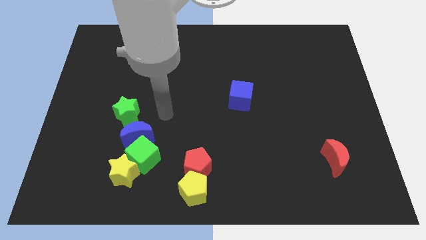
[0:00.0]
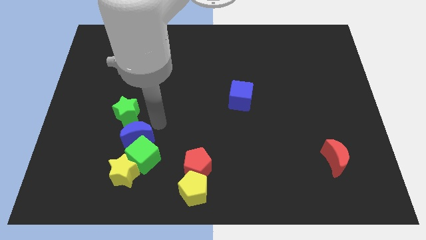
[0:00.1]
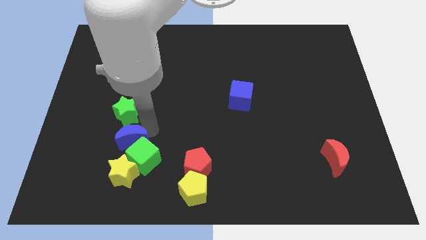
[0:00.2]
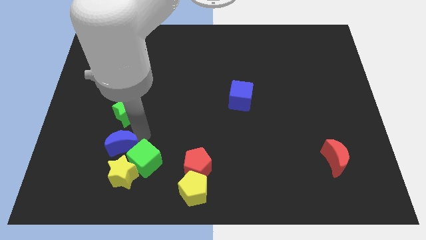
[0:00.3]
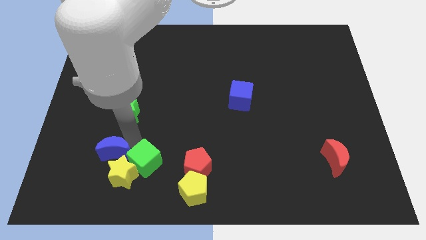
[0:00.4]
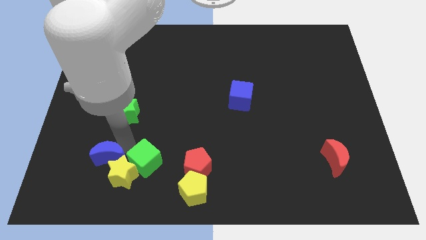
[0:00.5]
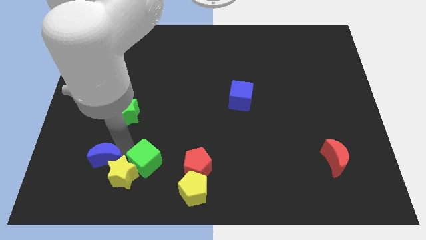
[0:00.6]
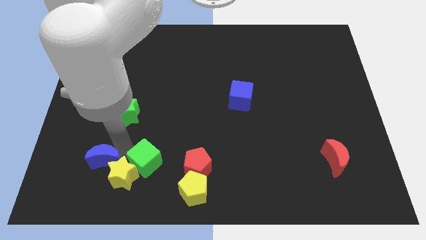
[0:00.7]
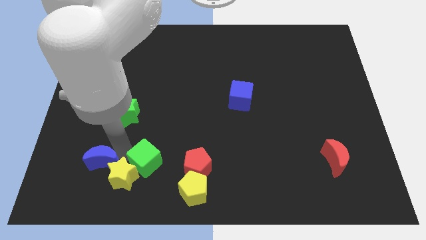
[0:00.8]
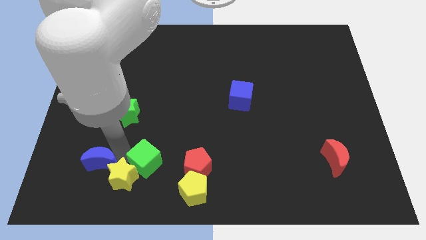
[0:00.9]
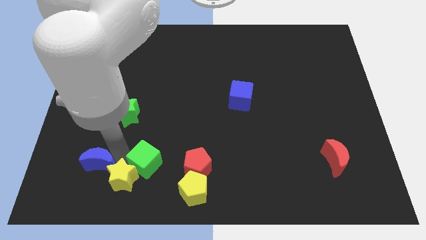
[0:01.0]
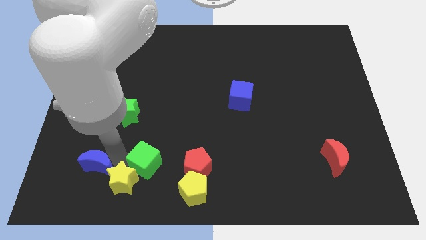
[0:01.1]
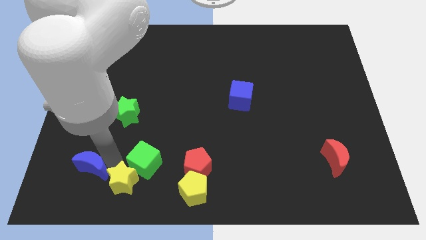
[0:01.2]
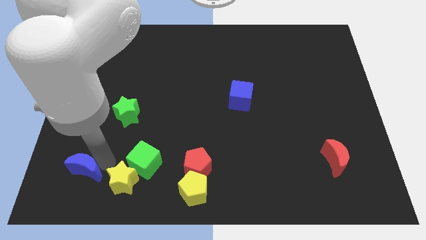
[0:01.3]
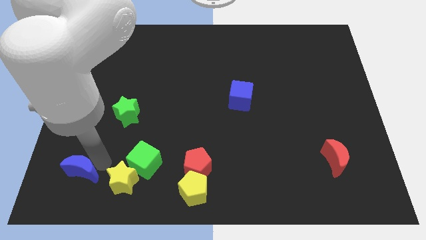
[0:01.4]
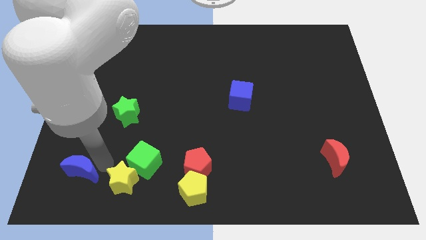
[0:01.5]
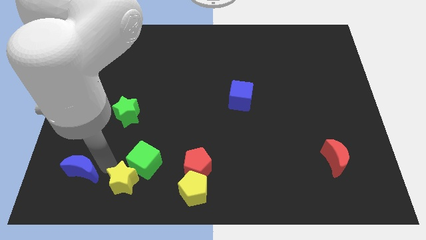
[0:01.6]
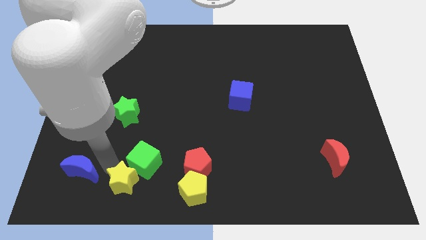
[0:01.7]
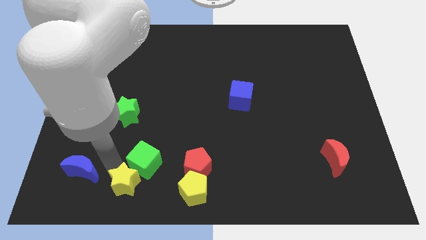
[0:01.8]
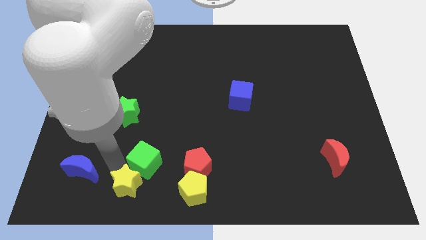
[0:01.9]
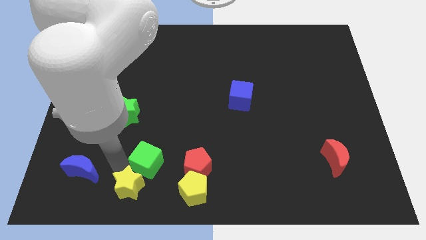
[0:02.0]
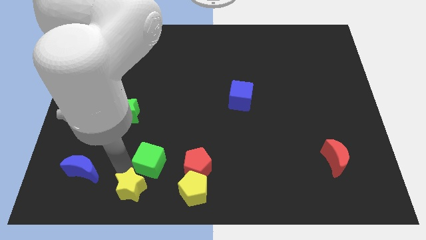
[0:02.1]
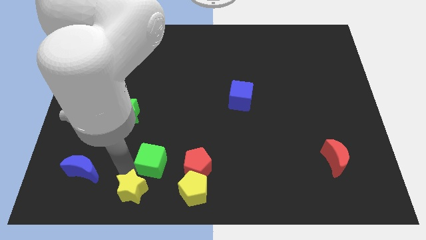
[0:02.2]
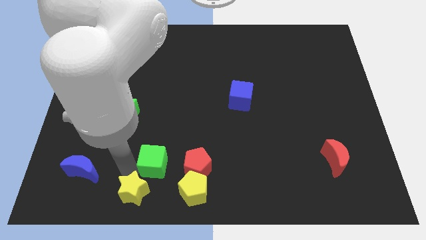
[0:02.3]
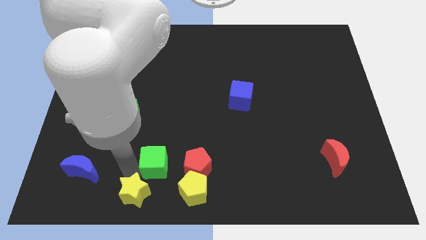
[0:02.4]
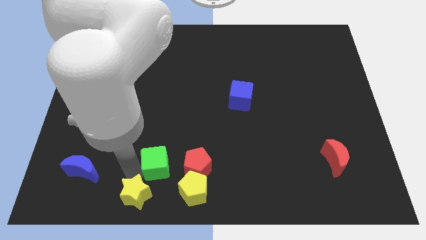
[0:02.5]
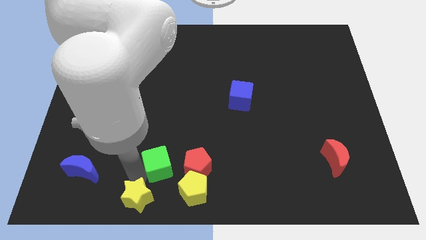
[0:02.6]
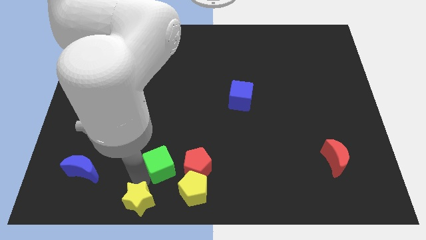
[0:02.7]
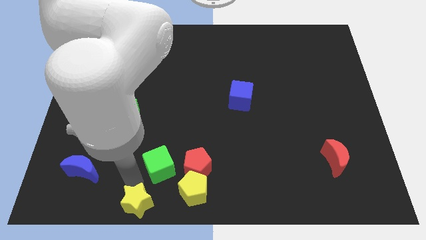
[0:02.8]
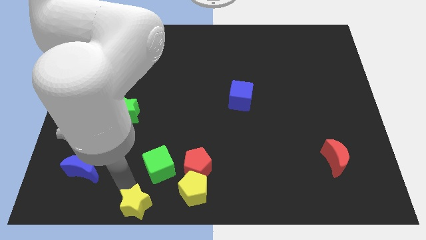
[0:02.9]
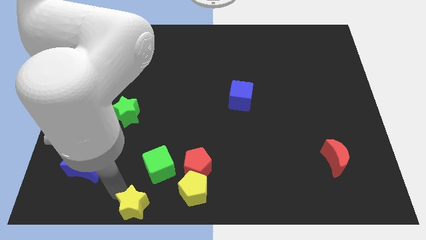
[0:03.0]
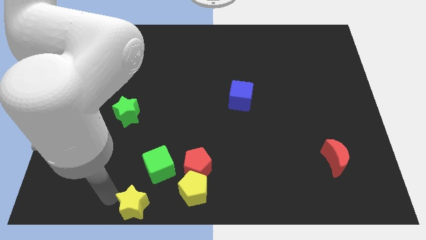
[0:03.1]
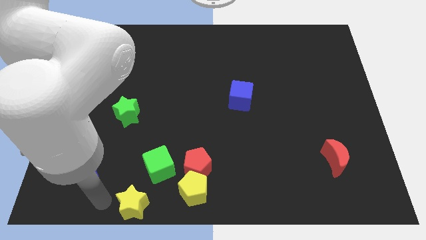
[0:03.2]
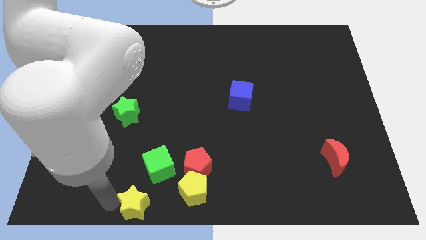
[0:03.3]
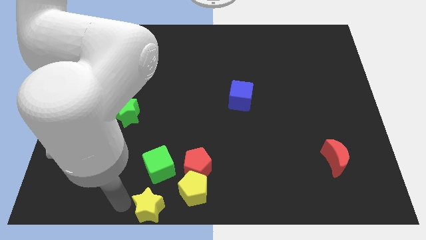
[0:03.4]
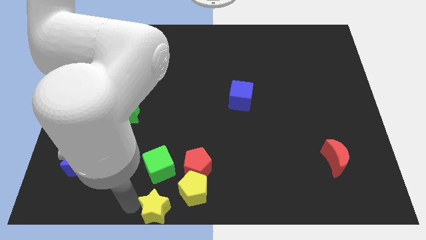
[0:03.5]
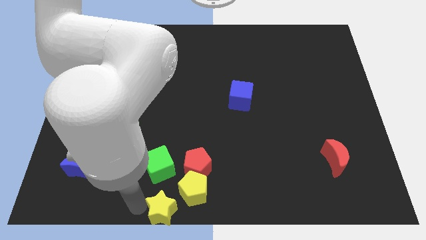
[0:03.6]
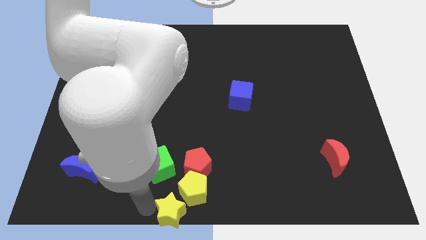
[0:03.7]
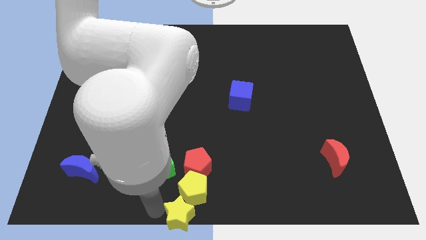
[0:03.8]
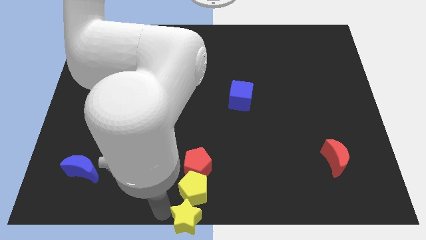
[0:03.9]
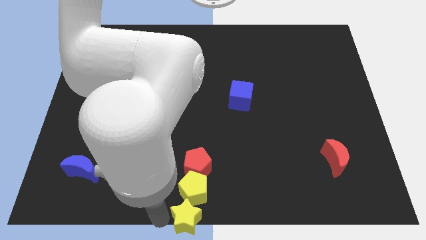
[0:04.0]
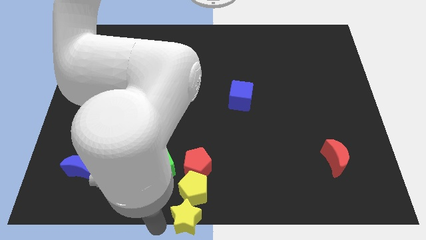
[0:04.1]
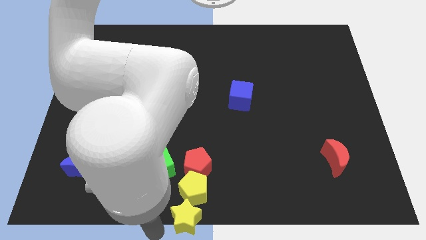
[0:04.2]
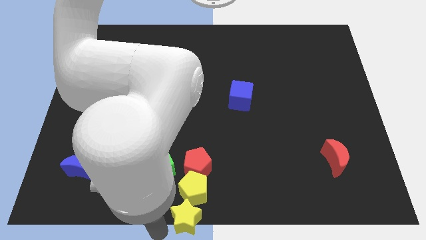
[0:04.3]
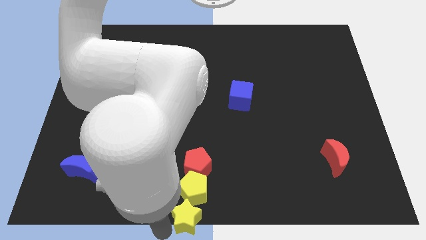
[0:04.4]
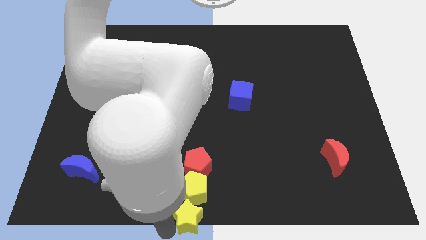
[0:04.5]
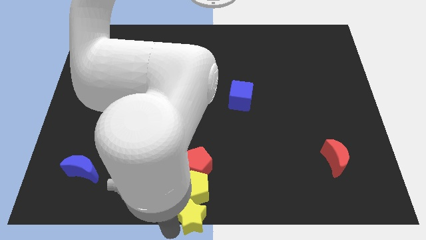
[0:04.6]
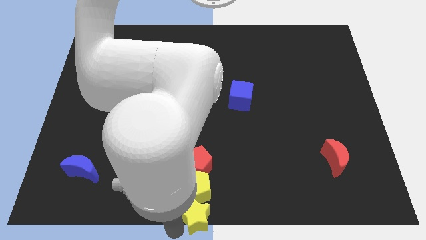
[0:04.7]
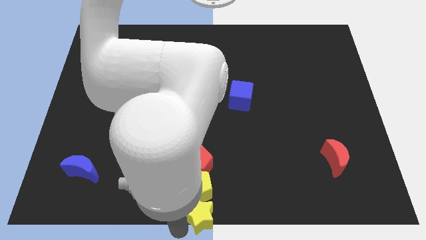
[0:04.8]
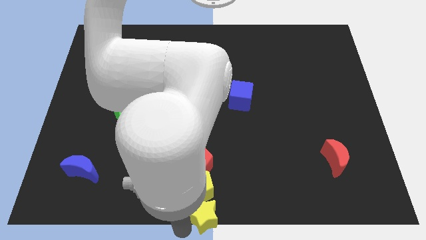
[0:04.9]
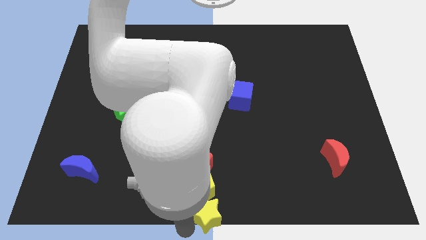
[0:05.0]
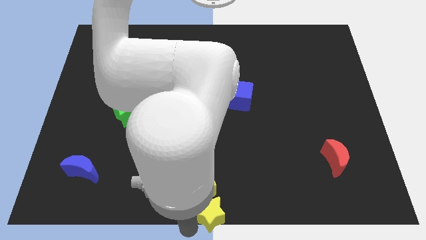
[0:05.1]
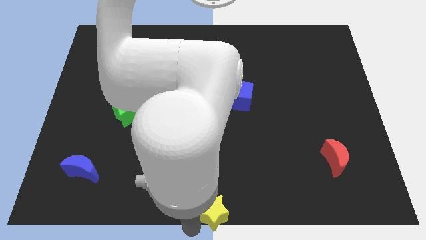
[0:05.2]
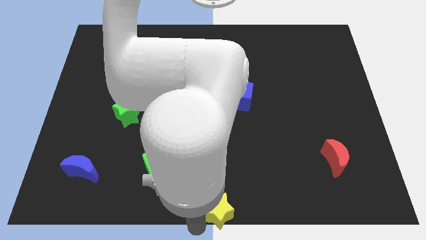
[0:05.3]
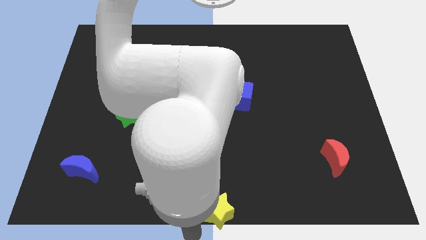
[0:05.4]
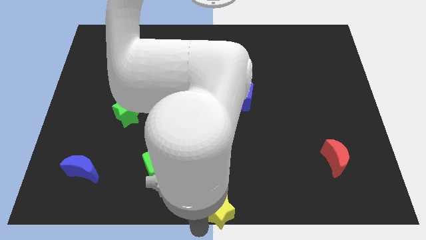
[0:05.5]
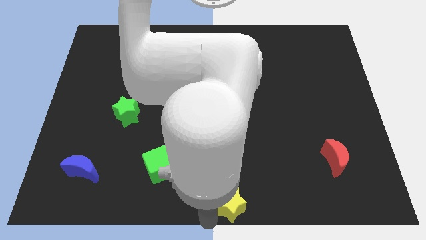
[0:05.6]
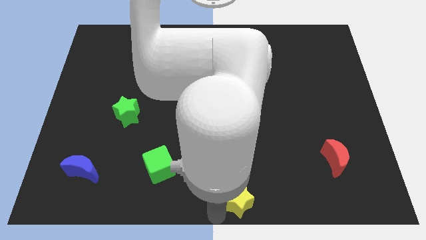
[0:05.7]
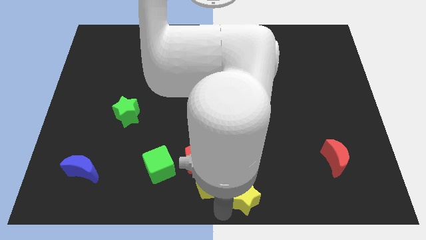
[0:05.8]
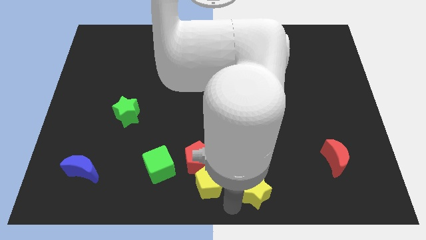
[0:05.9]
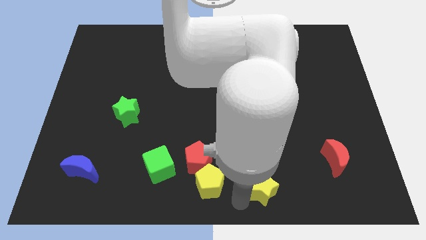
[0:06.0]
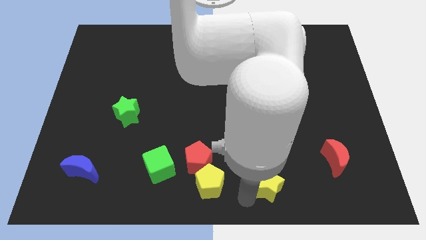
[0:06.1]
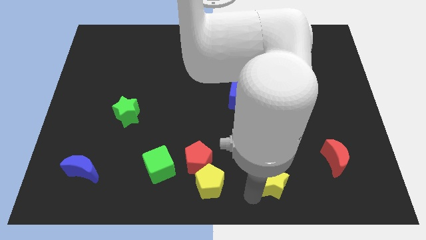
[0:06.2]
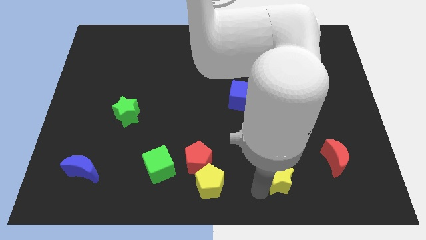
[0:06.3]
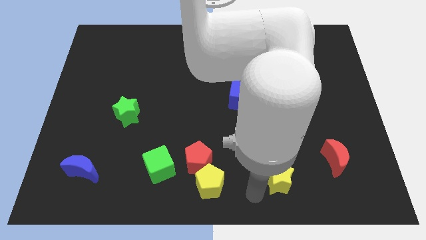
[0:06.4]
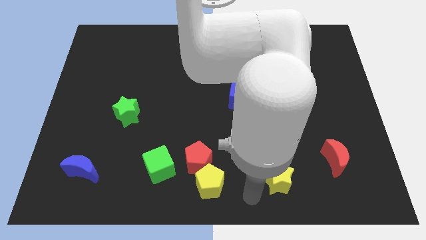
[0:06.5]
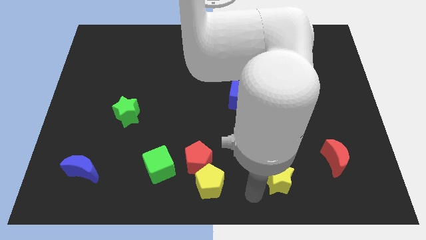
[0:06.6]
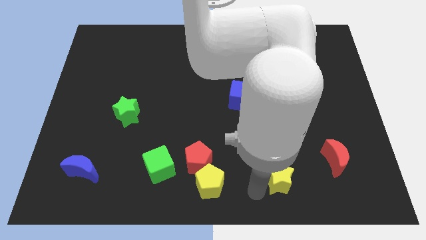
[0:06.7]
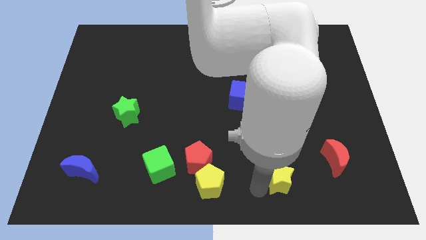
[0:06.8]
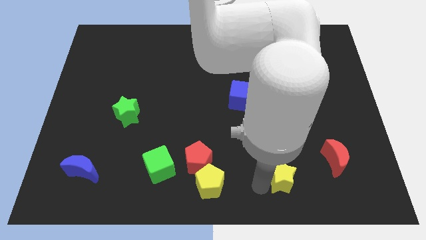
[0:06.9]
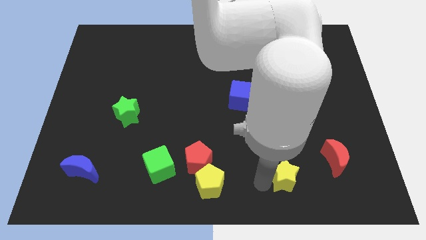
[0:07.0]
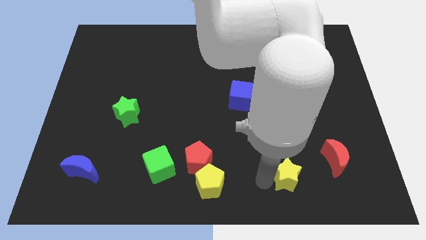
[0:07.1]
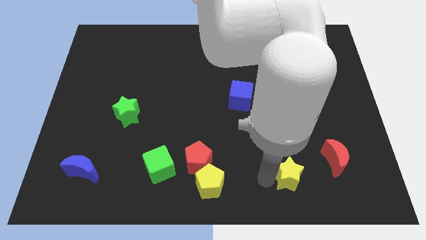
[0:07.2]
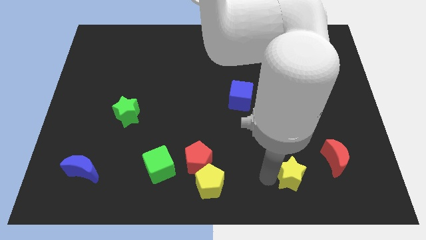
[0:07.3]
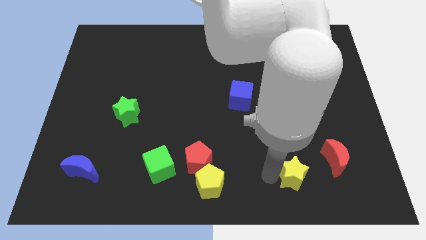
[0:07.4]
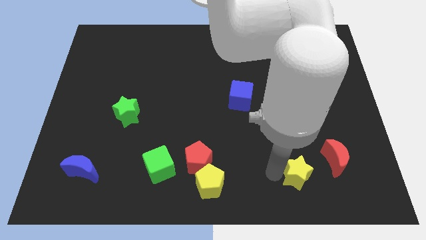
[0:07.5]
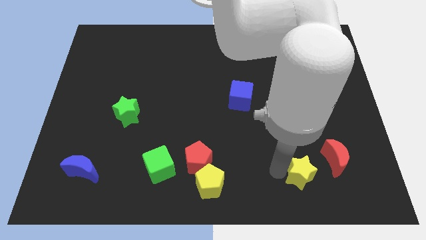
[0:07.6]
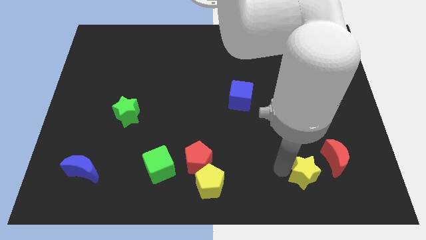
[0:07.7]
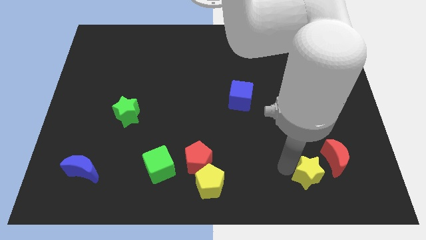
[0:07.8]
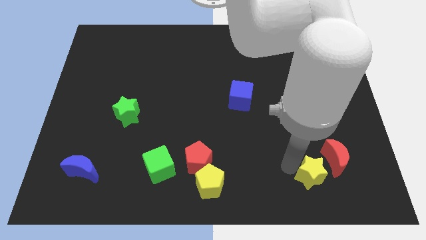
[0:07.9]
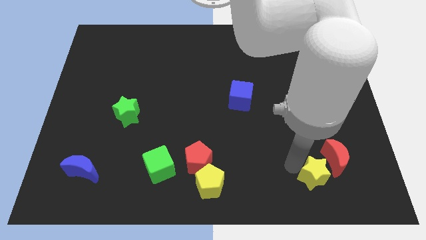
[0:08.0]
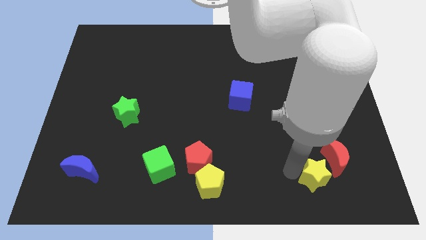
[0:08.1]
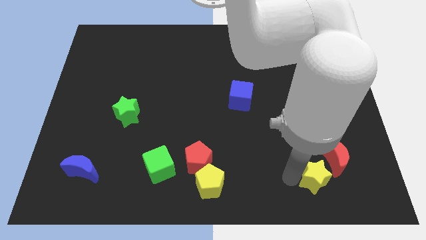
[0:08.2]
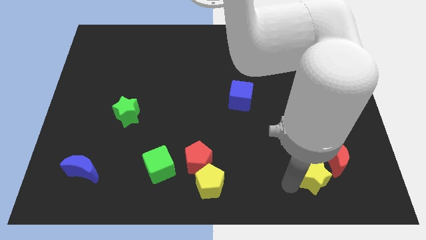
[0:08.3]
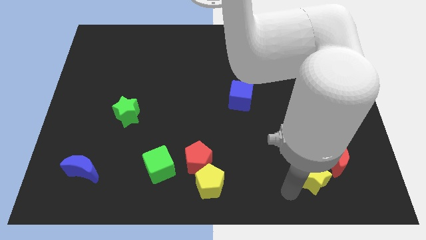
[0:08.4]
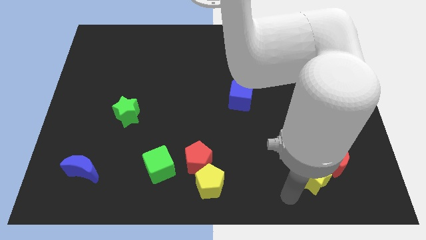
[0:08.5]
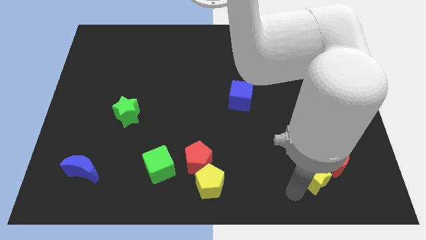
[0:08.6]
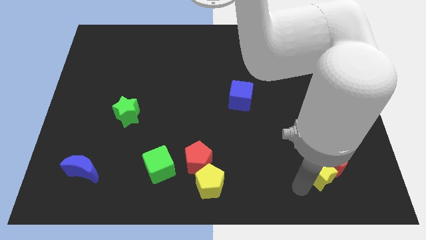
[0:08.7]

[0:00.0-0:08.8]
move the yellow star next to the red moon
